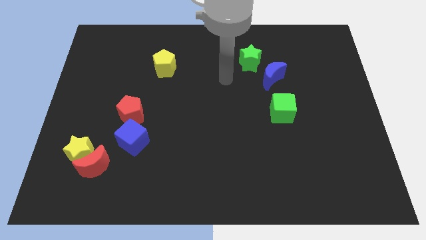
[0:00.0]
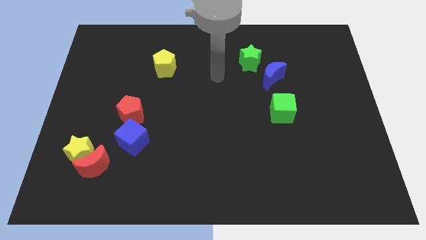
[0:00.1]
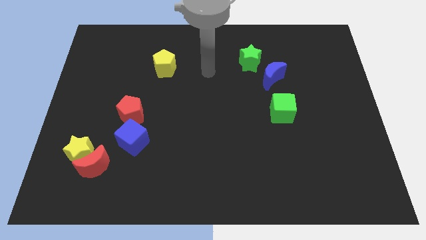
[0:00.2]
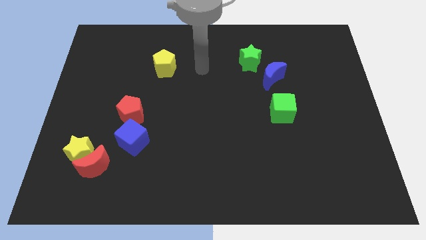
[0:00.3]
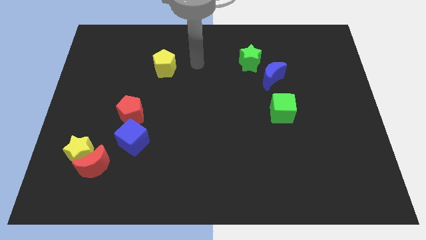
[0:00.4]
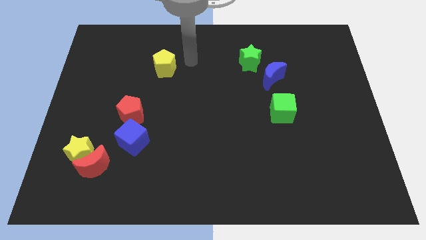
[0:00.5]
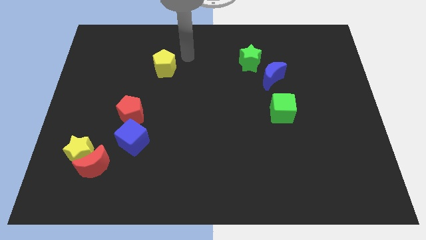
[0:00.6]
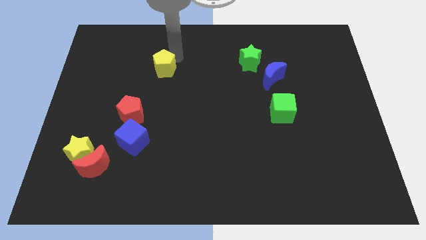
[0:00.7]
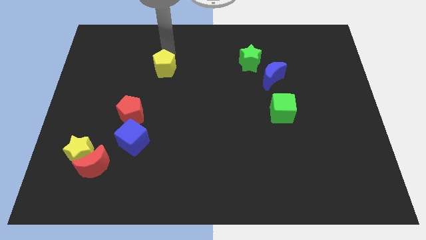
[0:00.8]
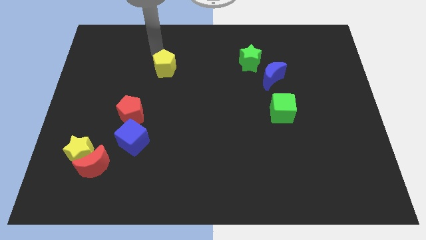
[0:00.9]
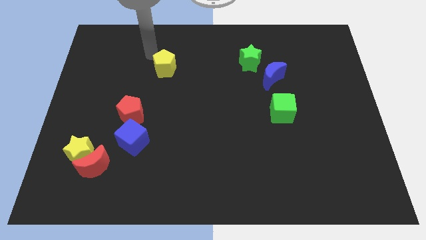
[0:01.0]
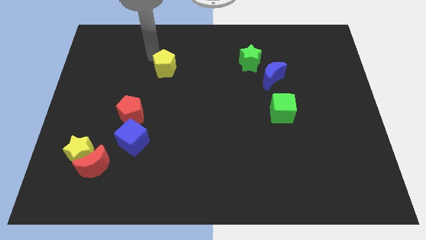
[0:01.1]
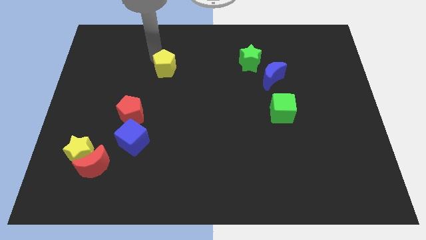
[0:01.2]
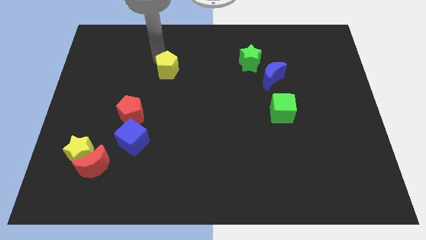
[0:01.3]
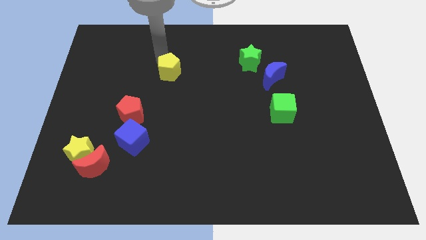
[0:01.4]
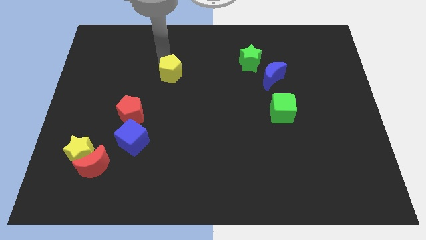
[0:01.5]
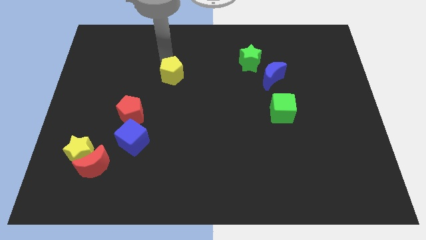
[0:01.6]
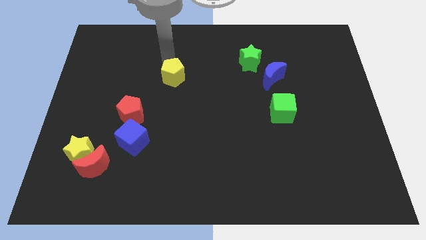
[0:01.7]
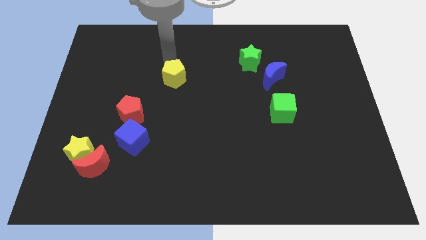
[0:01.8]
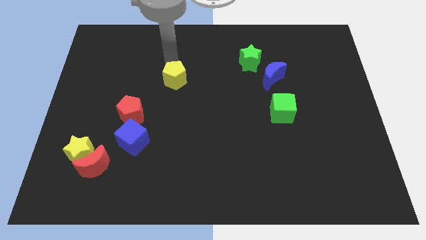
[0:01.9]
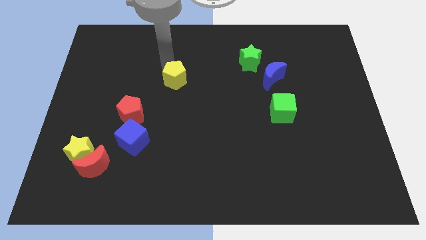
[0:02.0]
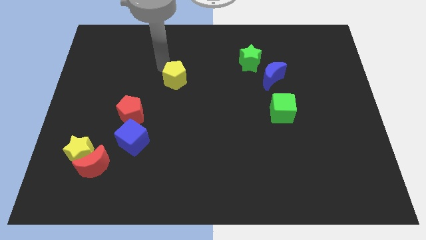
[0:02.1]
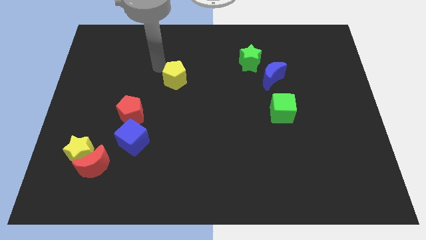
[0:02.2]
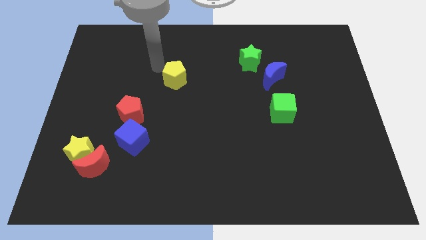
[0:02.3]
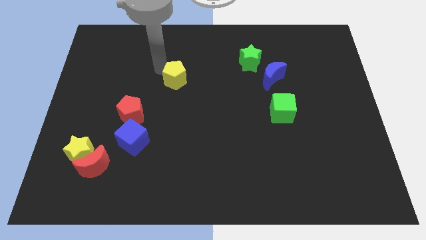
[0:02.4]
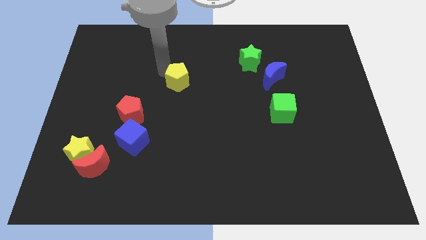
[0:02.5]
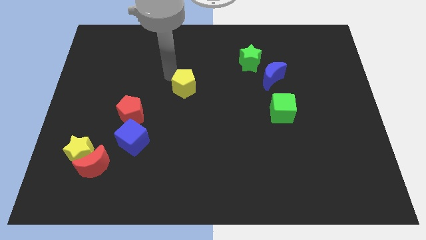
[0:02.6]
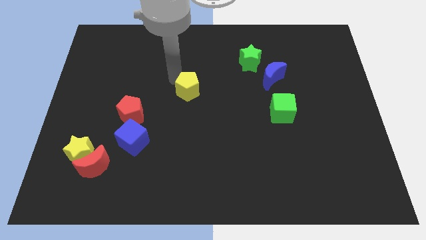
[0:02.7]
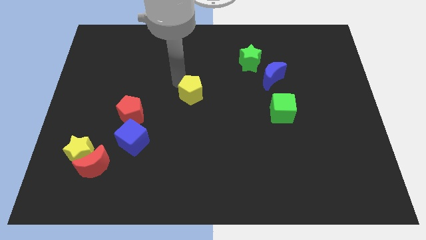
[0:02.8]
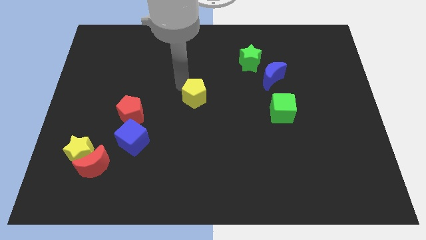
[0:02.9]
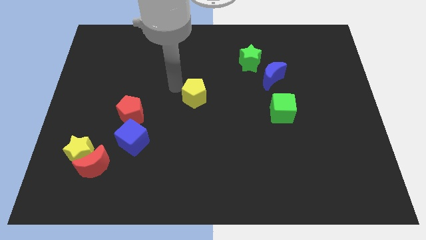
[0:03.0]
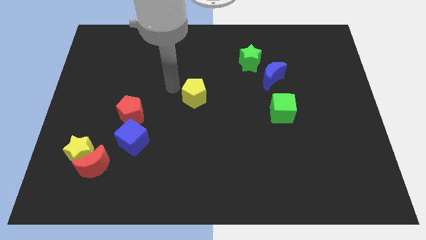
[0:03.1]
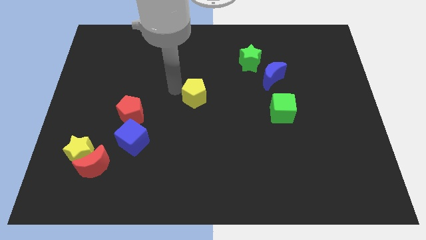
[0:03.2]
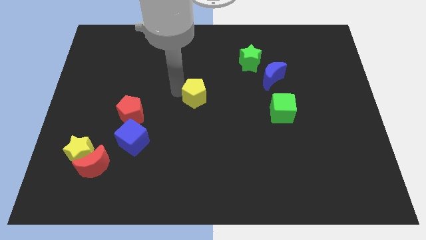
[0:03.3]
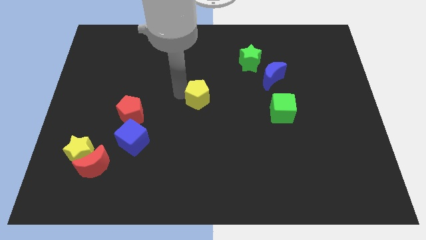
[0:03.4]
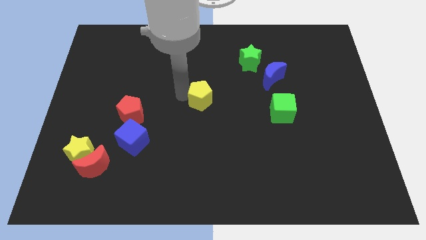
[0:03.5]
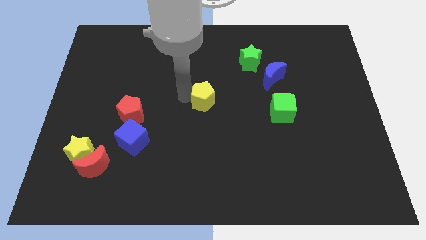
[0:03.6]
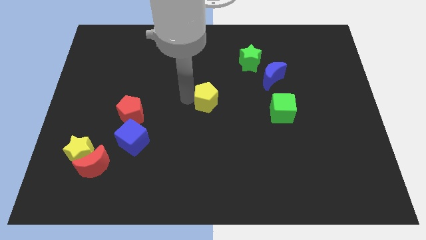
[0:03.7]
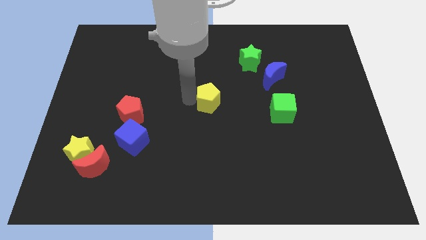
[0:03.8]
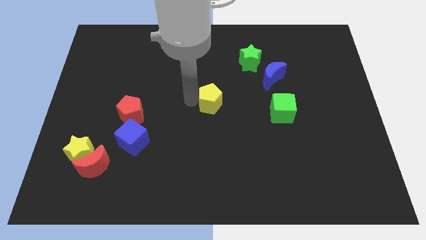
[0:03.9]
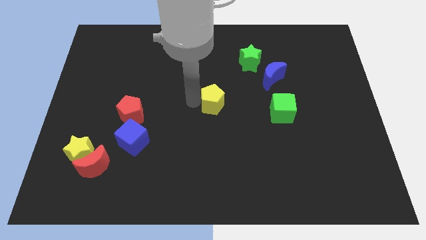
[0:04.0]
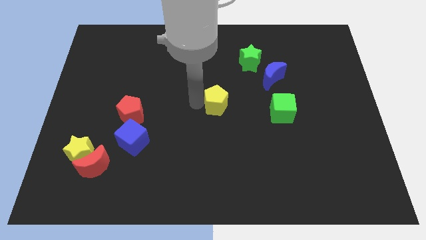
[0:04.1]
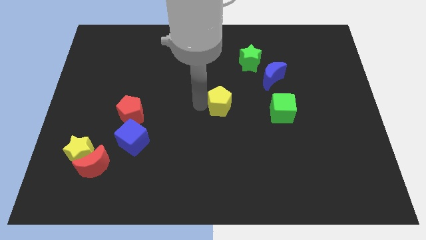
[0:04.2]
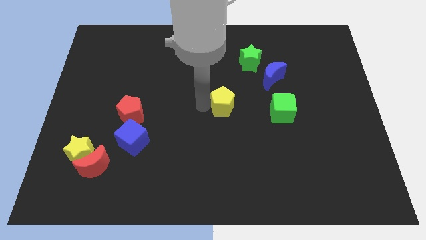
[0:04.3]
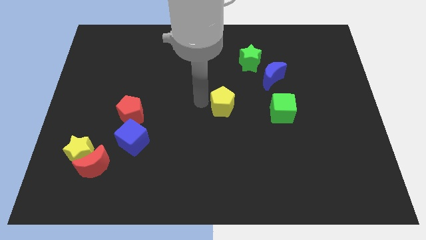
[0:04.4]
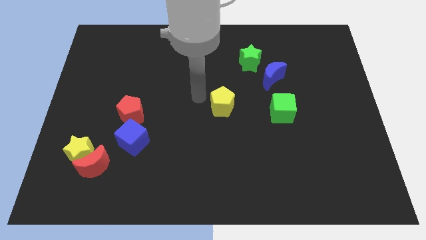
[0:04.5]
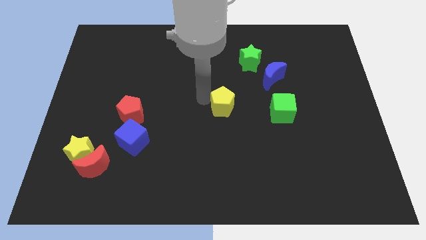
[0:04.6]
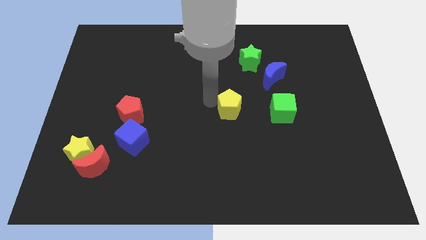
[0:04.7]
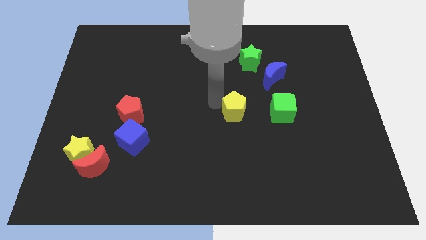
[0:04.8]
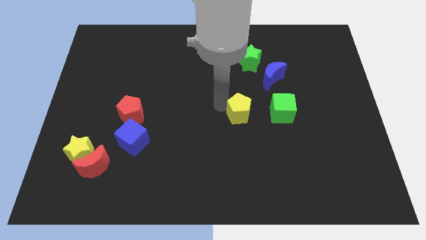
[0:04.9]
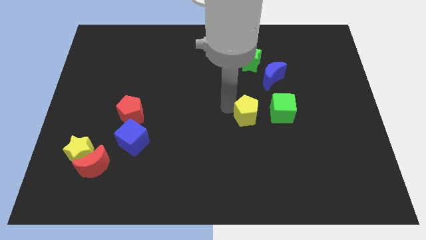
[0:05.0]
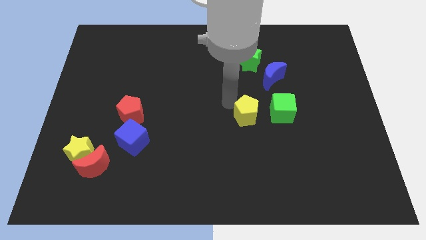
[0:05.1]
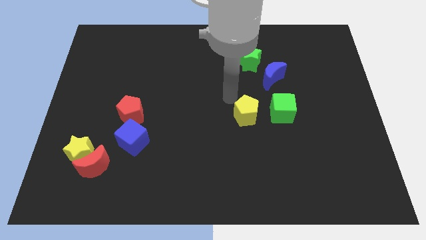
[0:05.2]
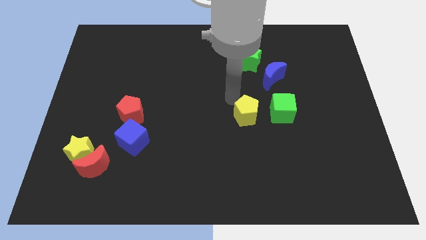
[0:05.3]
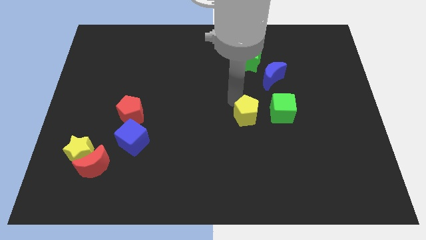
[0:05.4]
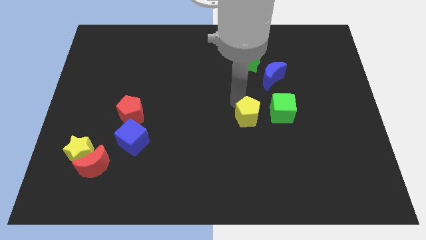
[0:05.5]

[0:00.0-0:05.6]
push the yellow pentagon to the bottom left side of the green cube

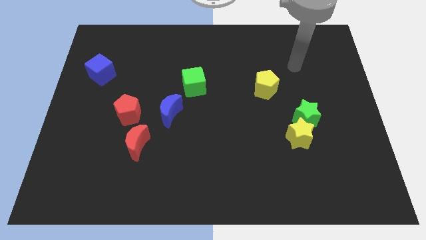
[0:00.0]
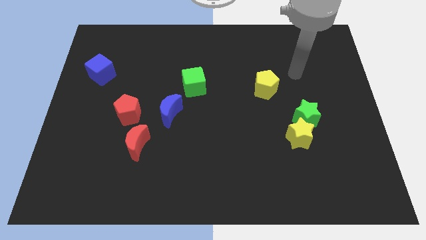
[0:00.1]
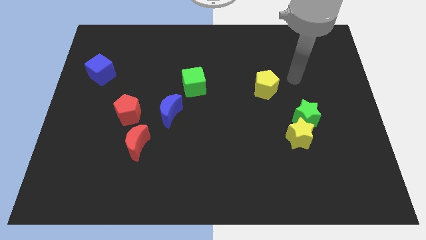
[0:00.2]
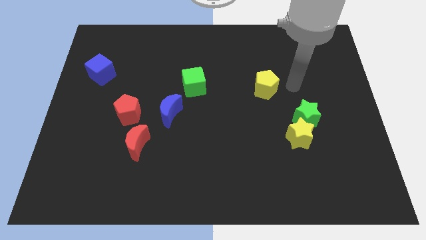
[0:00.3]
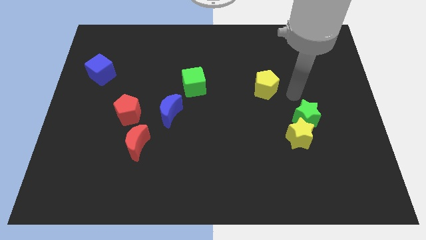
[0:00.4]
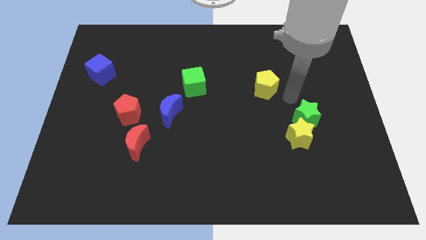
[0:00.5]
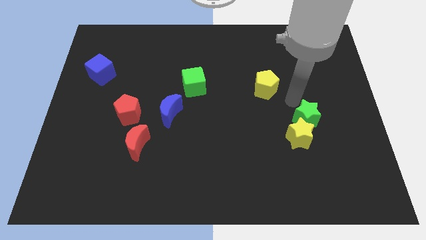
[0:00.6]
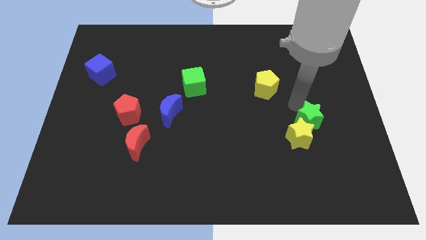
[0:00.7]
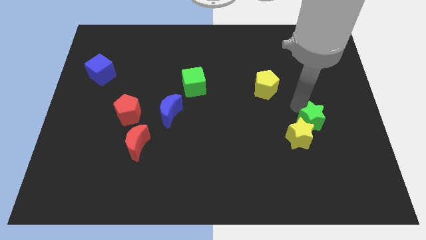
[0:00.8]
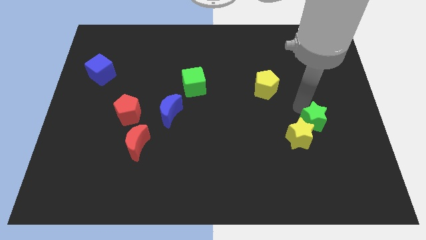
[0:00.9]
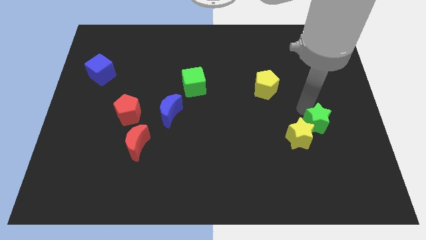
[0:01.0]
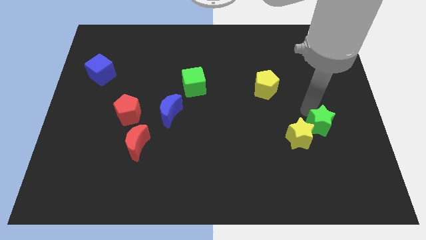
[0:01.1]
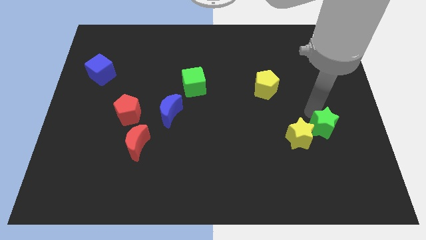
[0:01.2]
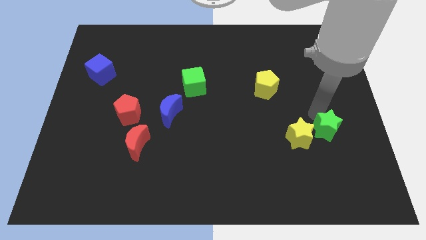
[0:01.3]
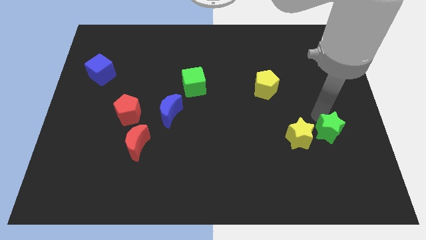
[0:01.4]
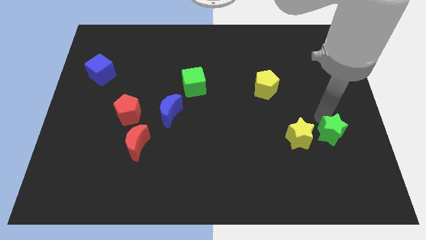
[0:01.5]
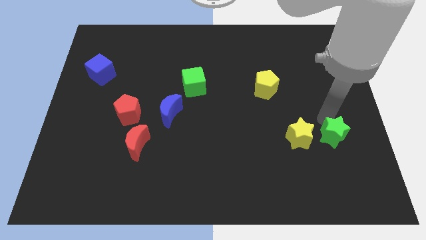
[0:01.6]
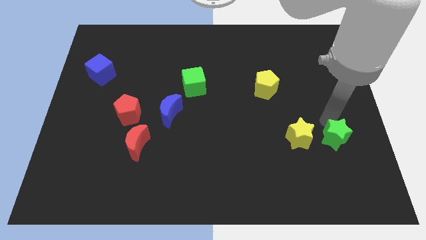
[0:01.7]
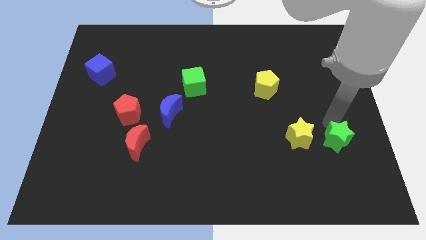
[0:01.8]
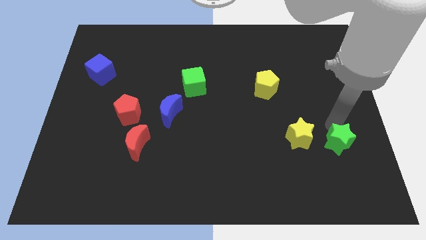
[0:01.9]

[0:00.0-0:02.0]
put the green star diagonally down and to the right of the yellow star
